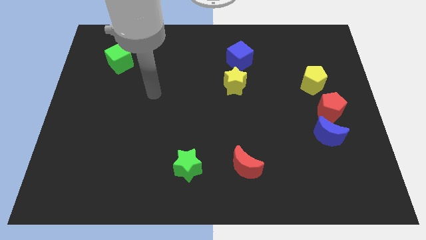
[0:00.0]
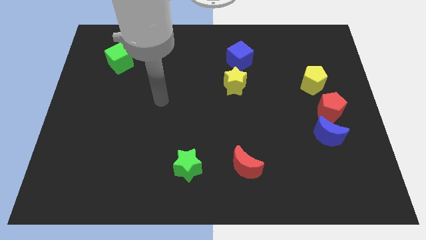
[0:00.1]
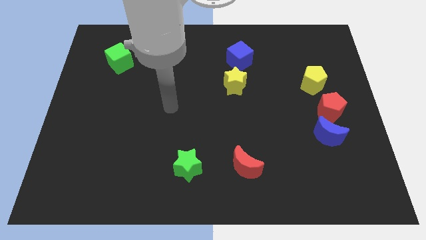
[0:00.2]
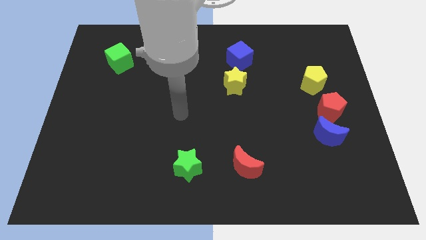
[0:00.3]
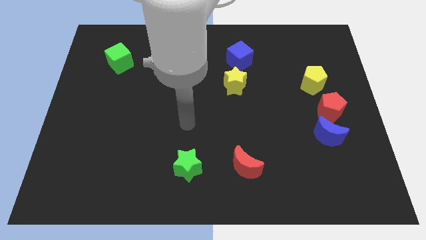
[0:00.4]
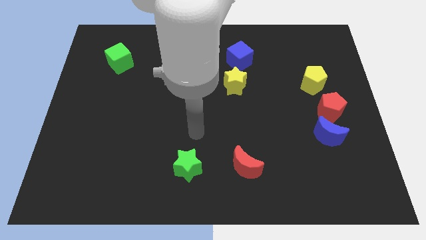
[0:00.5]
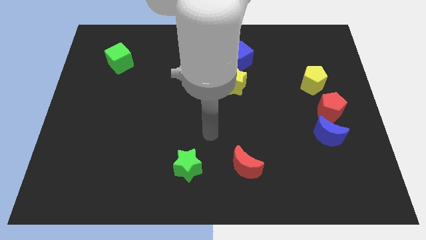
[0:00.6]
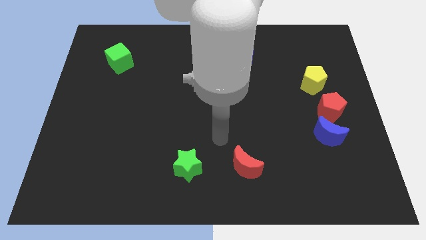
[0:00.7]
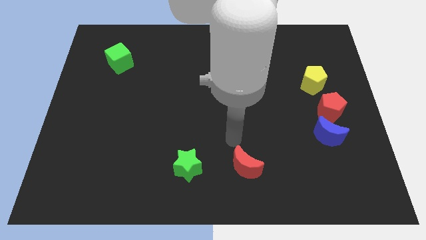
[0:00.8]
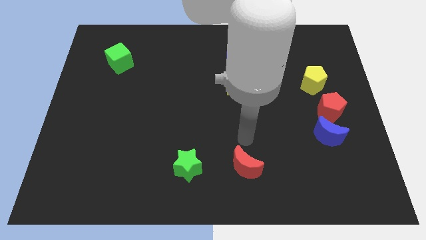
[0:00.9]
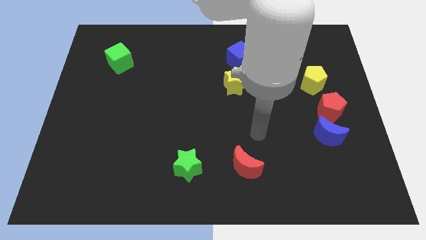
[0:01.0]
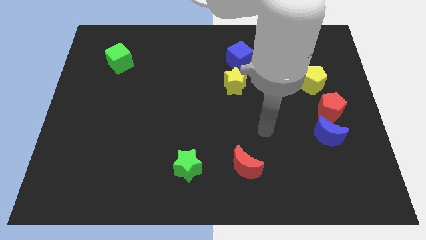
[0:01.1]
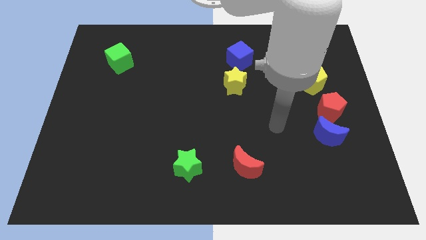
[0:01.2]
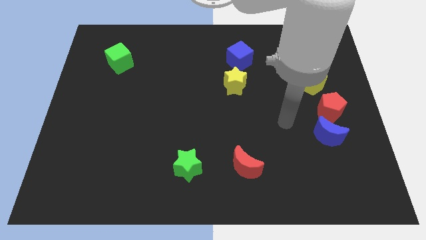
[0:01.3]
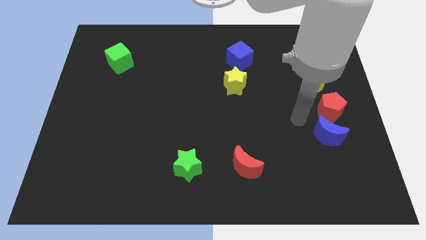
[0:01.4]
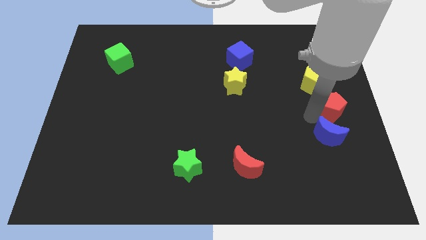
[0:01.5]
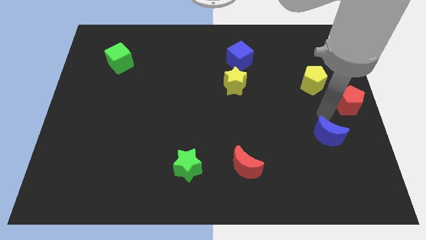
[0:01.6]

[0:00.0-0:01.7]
separate the blue moon from the red pentagon

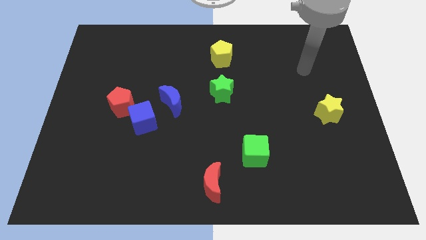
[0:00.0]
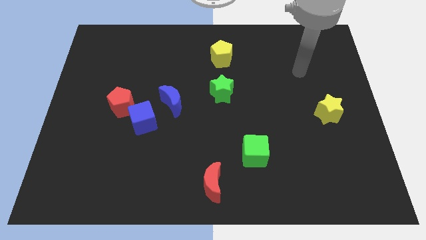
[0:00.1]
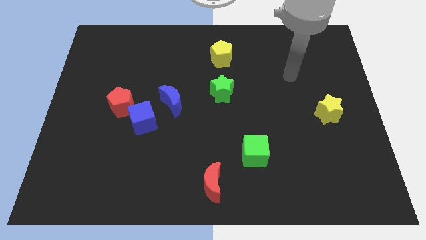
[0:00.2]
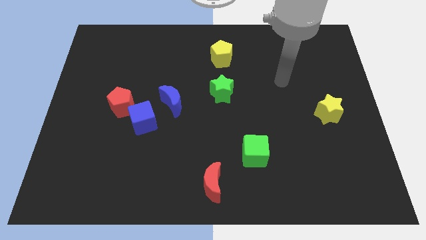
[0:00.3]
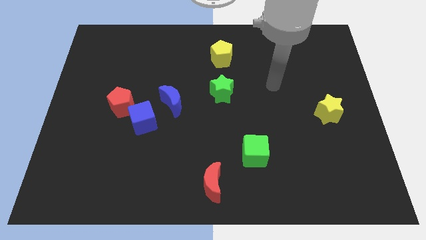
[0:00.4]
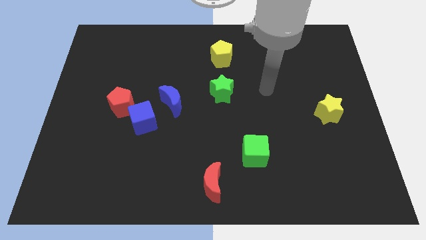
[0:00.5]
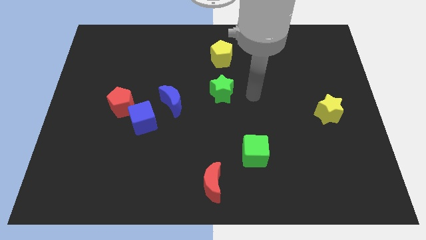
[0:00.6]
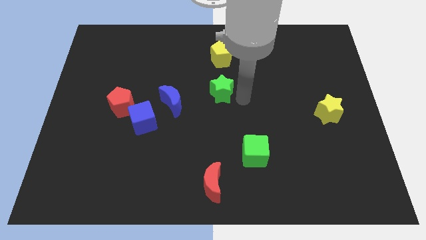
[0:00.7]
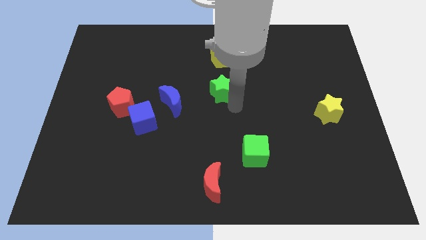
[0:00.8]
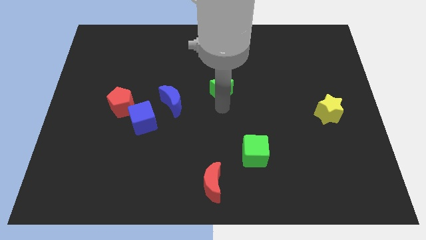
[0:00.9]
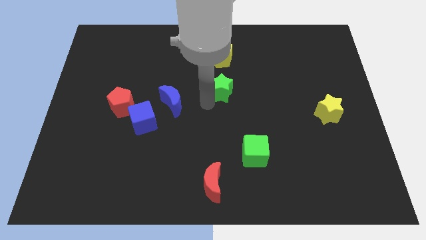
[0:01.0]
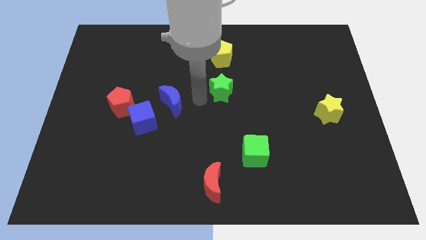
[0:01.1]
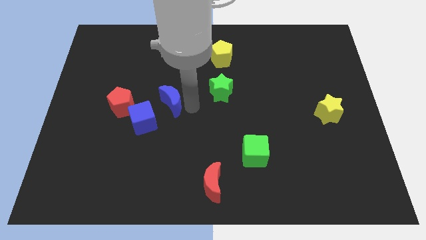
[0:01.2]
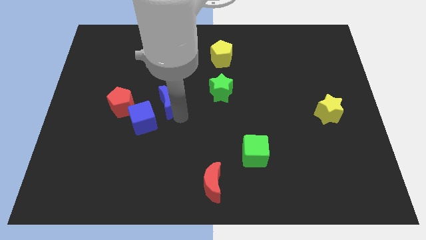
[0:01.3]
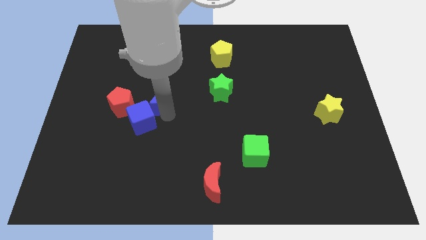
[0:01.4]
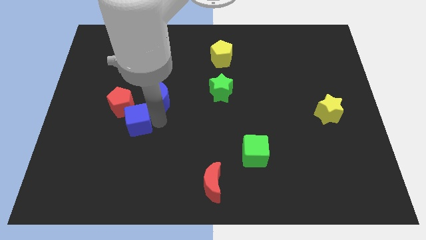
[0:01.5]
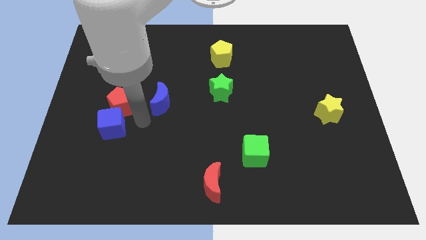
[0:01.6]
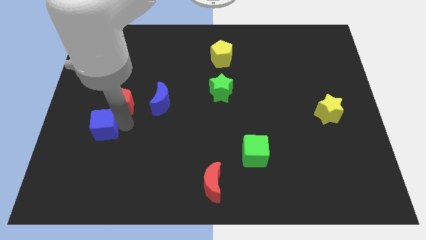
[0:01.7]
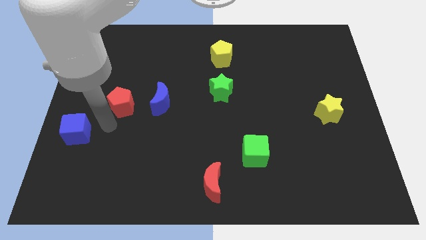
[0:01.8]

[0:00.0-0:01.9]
move the red pentagon away from the blue cube

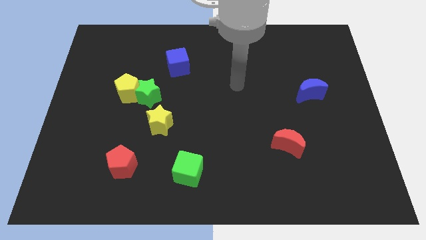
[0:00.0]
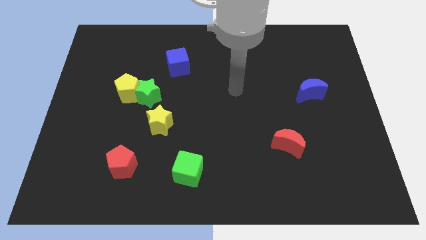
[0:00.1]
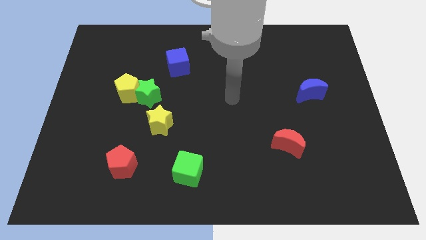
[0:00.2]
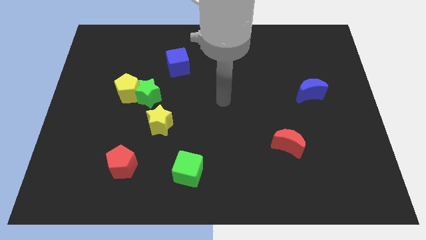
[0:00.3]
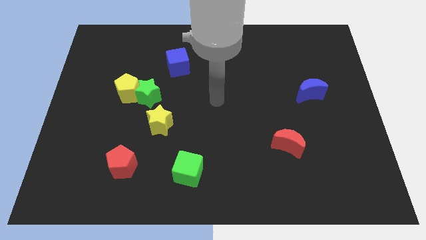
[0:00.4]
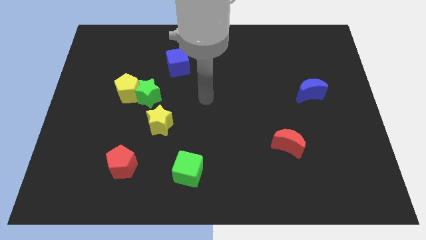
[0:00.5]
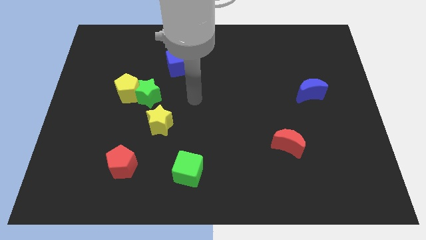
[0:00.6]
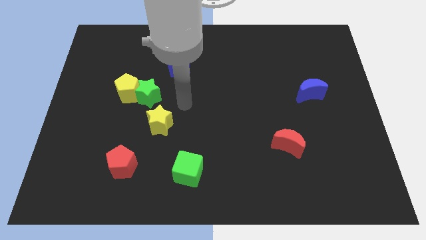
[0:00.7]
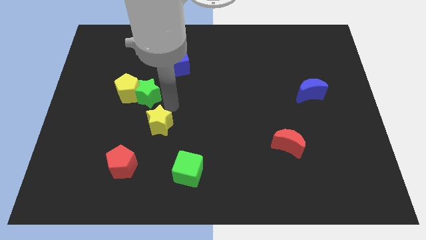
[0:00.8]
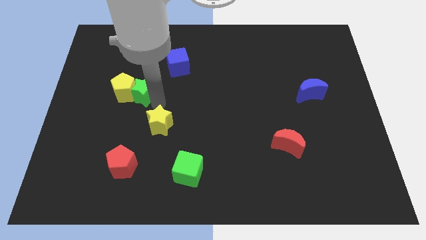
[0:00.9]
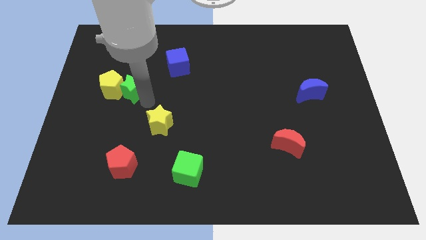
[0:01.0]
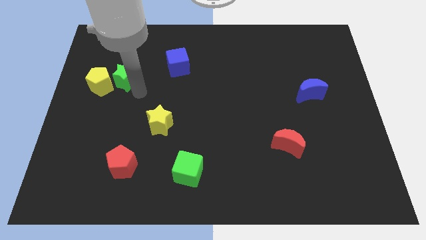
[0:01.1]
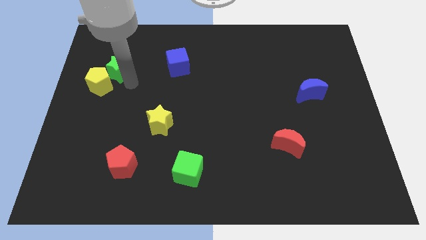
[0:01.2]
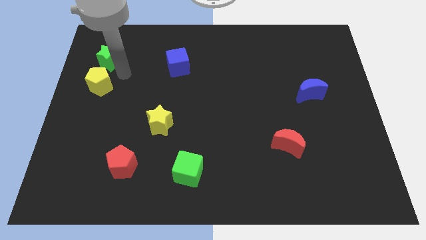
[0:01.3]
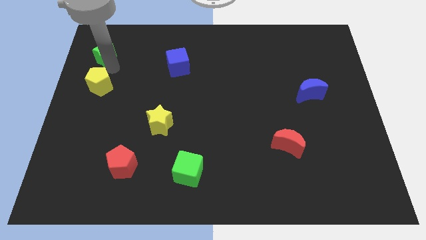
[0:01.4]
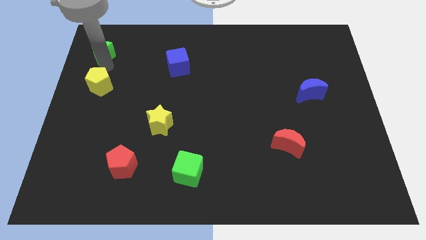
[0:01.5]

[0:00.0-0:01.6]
move the yellow pentagon away from the green star

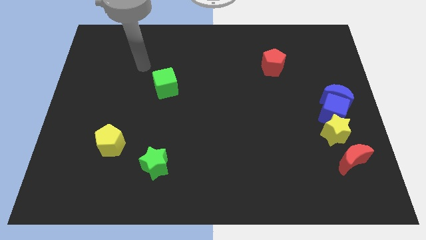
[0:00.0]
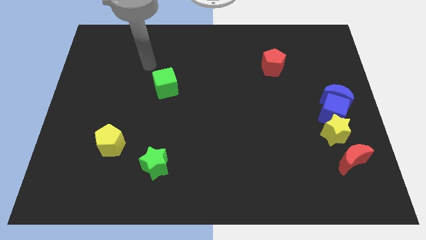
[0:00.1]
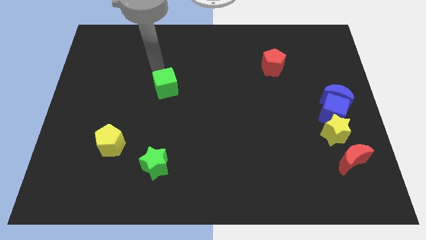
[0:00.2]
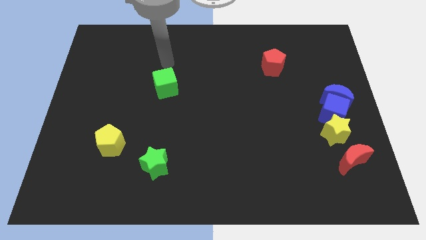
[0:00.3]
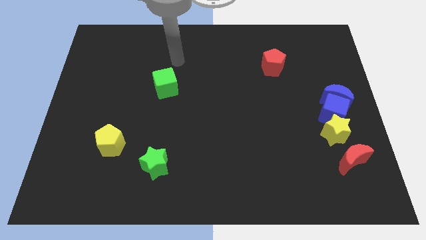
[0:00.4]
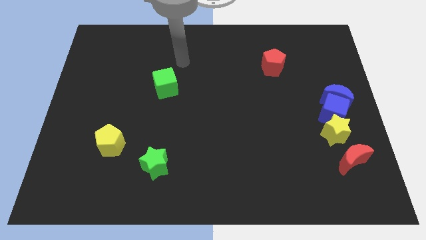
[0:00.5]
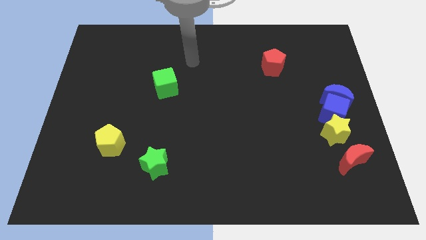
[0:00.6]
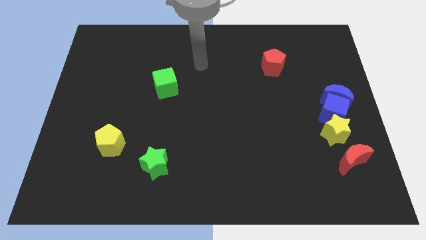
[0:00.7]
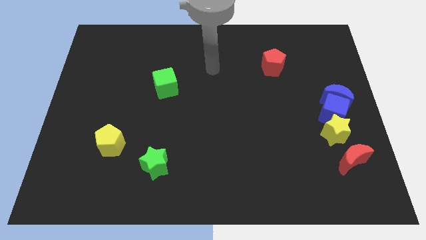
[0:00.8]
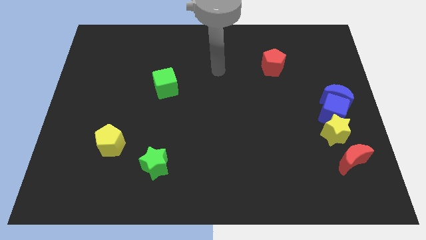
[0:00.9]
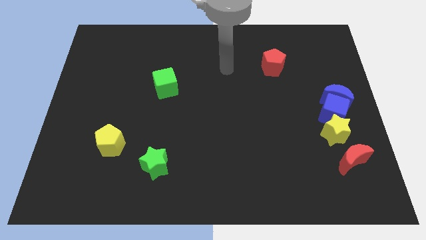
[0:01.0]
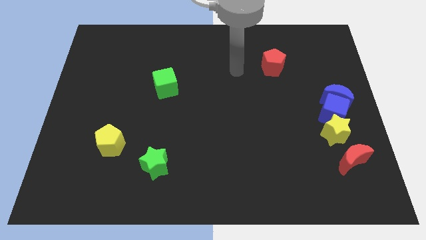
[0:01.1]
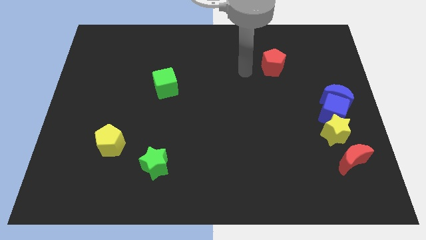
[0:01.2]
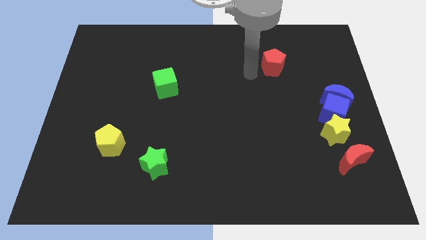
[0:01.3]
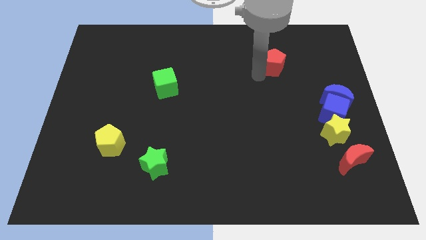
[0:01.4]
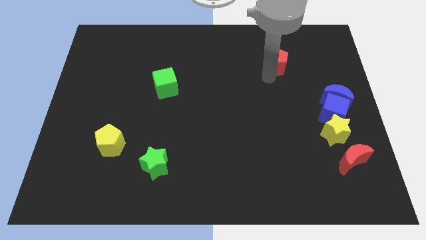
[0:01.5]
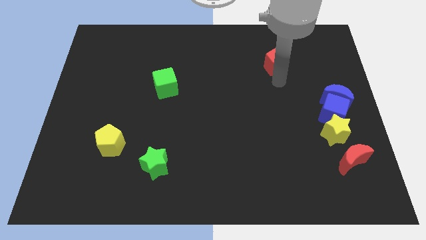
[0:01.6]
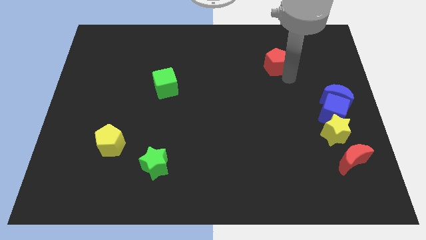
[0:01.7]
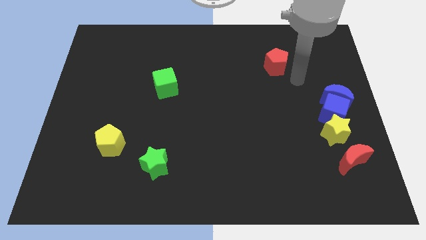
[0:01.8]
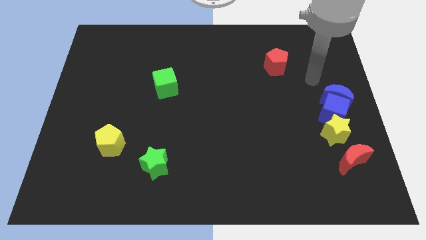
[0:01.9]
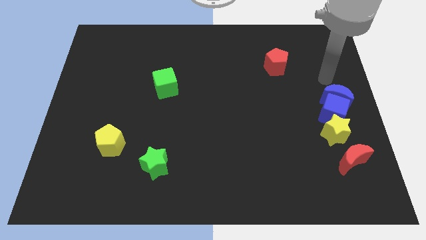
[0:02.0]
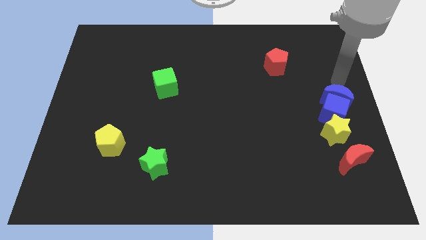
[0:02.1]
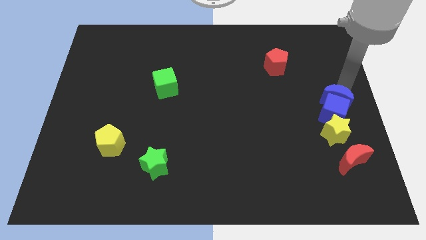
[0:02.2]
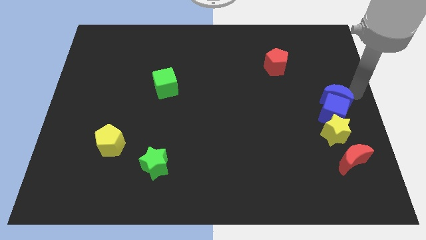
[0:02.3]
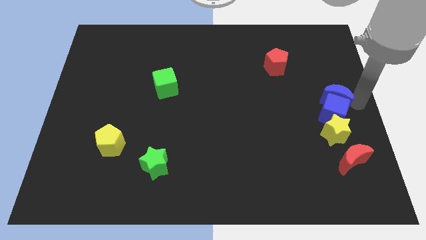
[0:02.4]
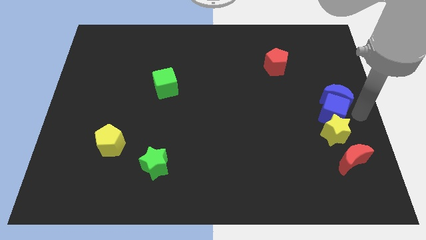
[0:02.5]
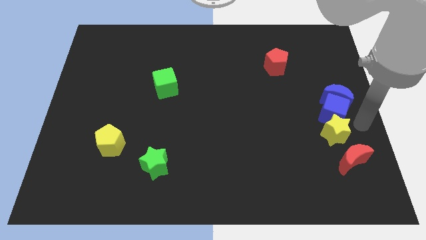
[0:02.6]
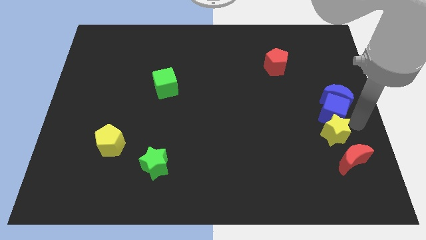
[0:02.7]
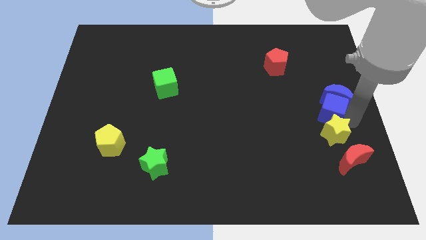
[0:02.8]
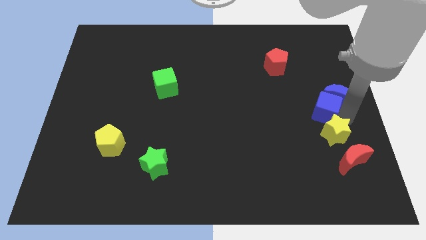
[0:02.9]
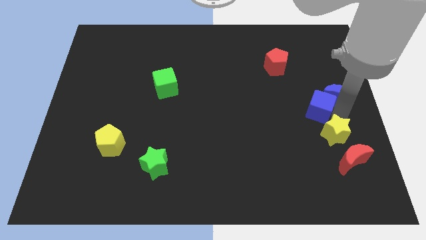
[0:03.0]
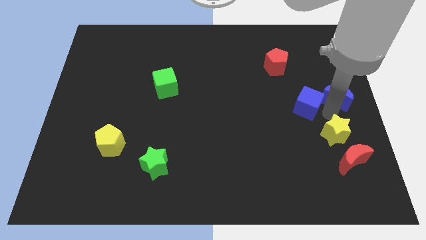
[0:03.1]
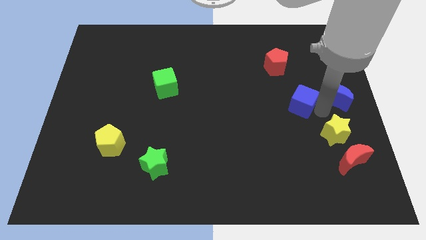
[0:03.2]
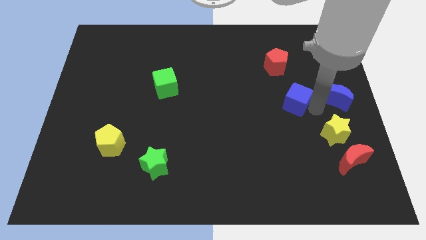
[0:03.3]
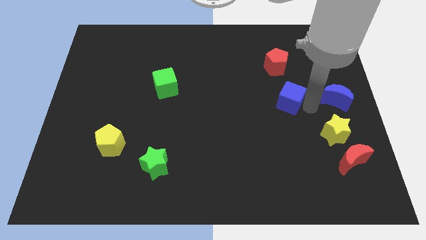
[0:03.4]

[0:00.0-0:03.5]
move the blue cube away from the blue moon and yellow star

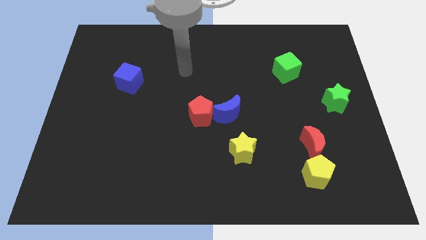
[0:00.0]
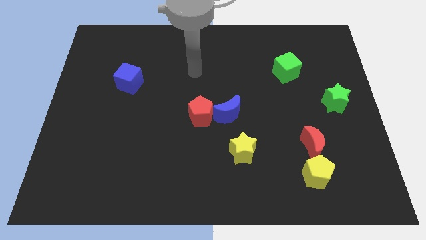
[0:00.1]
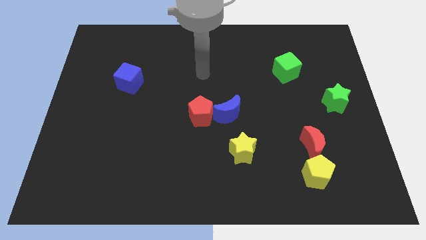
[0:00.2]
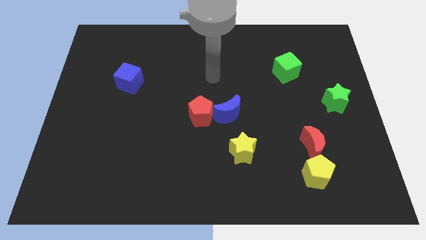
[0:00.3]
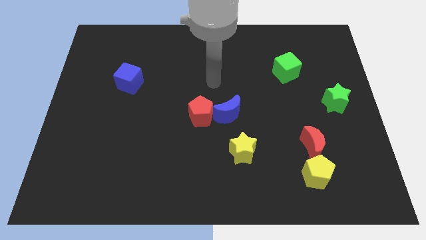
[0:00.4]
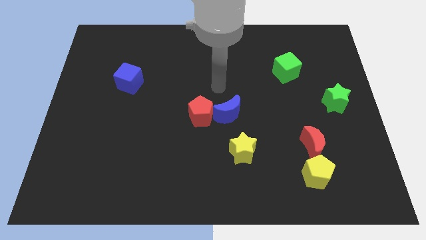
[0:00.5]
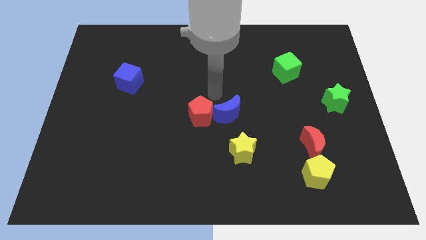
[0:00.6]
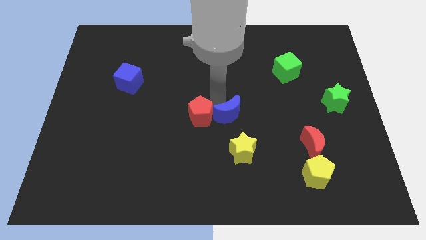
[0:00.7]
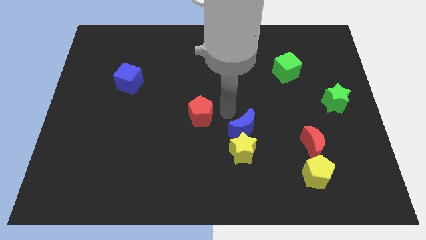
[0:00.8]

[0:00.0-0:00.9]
separate the red pentagon from the blue moon
